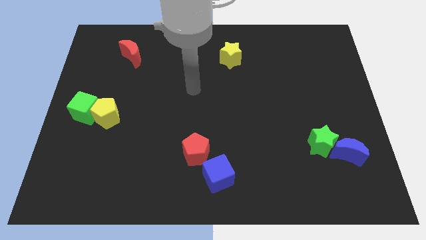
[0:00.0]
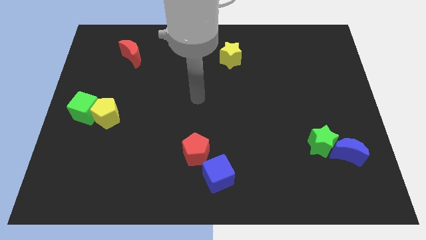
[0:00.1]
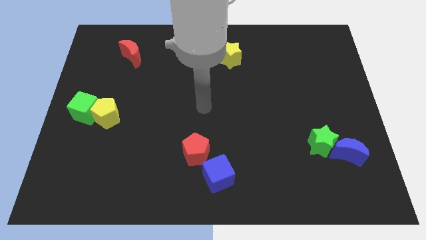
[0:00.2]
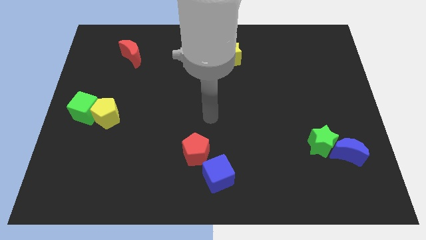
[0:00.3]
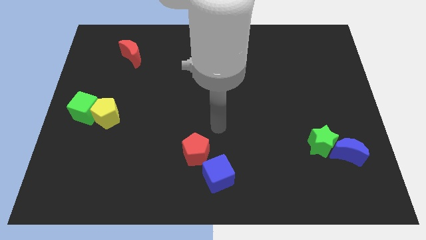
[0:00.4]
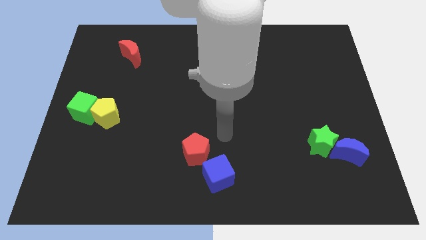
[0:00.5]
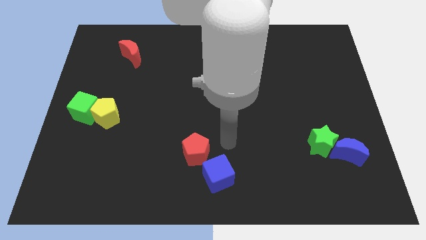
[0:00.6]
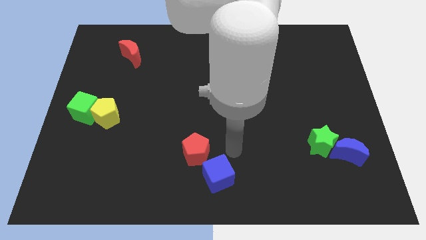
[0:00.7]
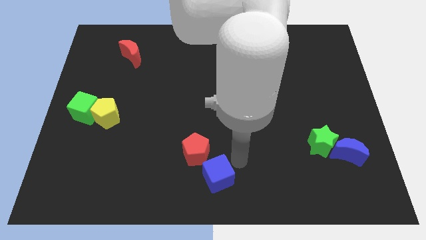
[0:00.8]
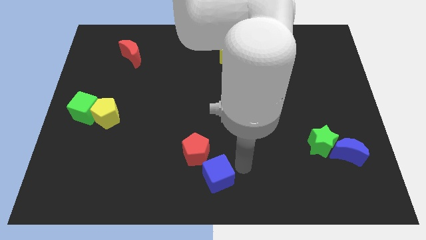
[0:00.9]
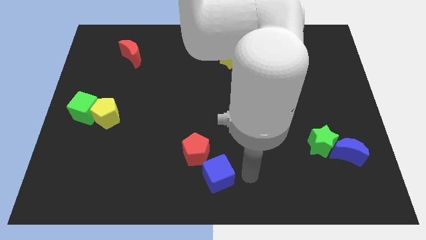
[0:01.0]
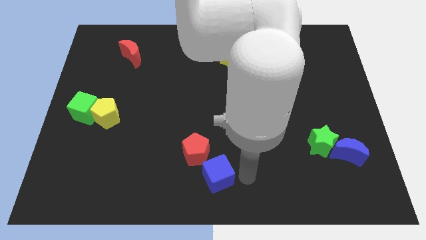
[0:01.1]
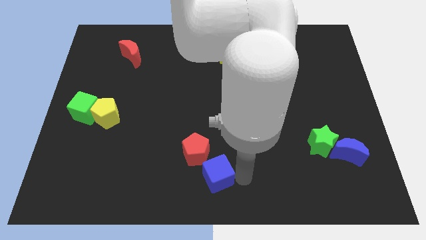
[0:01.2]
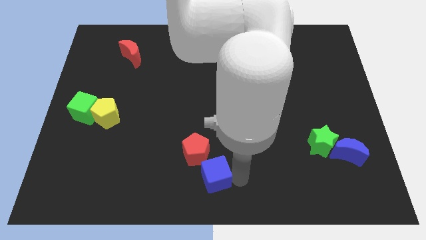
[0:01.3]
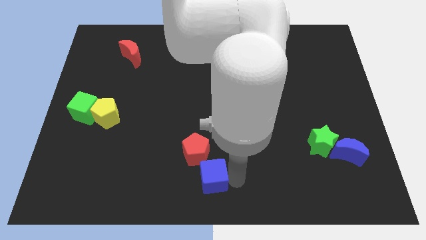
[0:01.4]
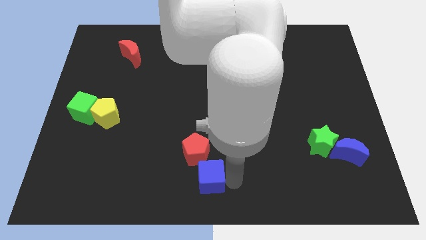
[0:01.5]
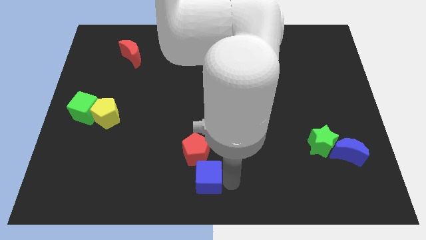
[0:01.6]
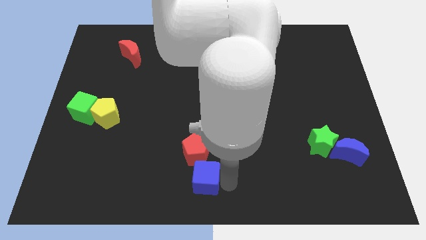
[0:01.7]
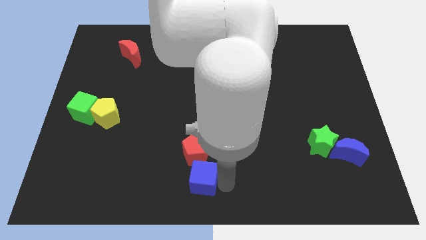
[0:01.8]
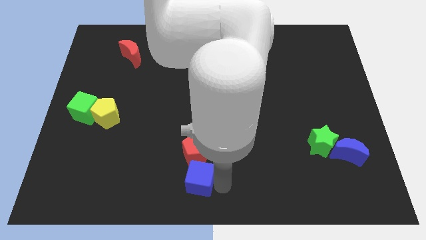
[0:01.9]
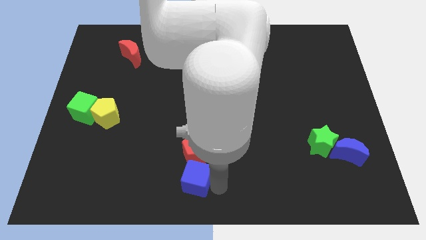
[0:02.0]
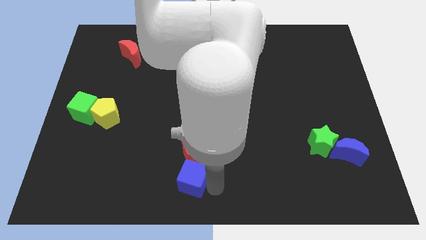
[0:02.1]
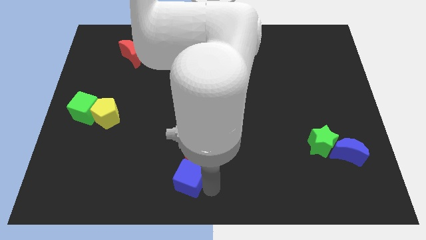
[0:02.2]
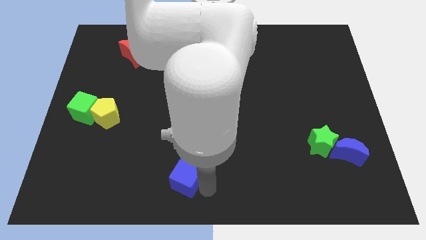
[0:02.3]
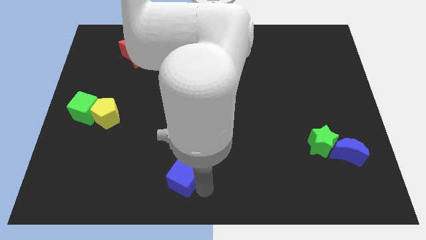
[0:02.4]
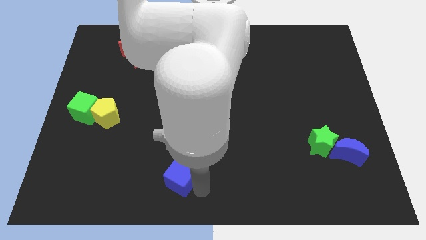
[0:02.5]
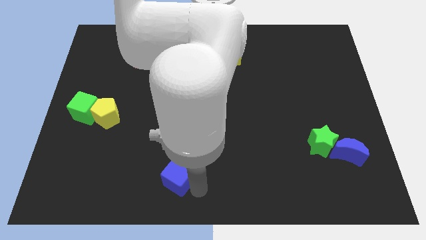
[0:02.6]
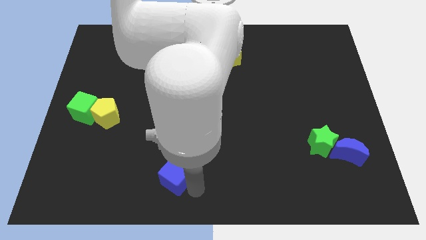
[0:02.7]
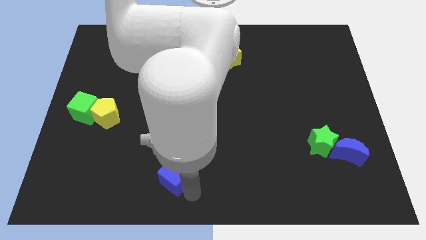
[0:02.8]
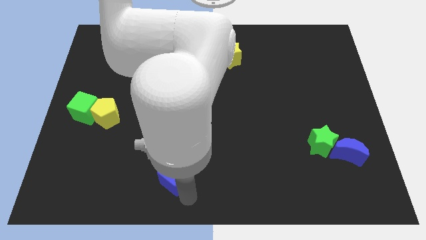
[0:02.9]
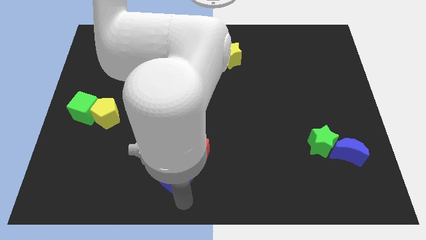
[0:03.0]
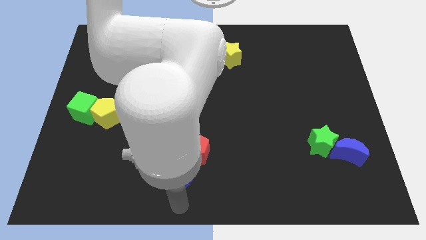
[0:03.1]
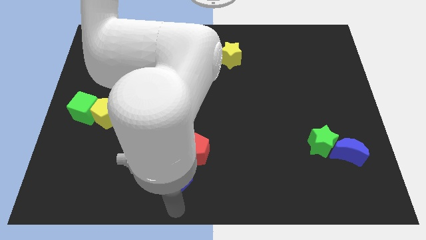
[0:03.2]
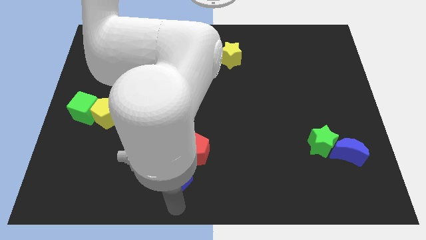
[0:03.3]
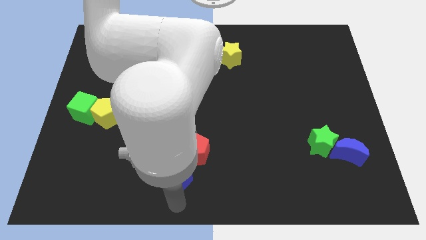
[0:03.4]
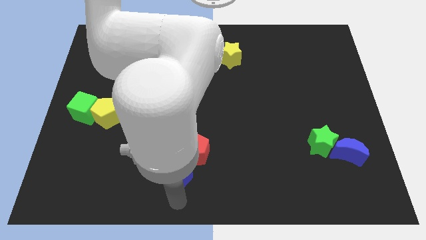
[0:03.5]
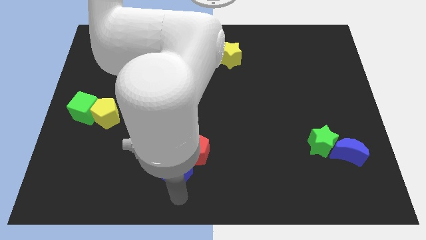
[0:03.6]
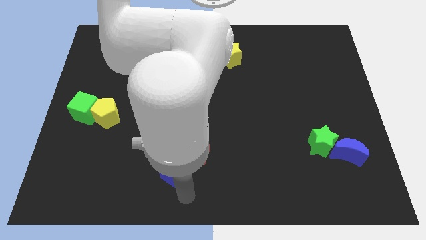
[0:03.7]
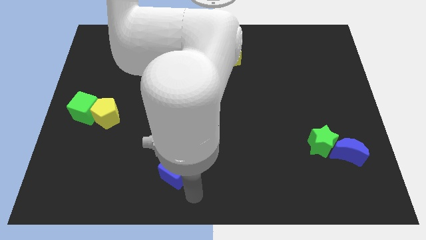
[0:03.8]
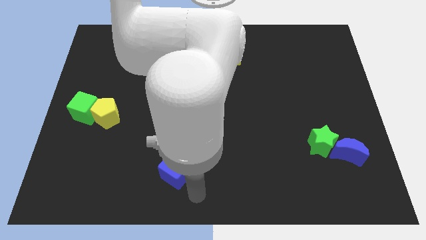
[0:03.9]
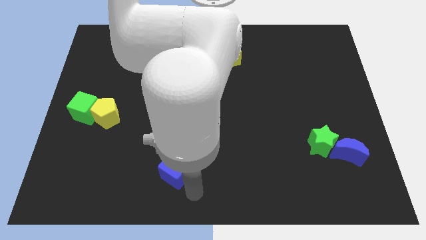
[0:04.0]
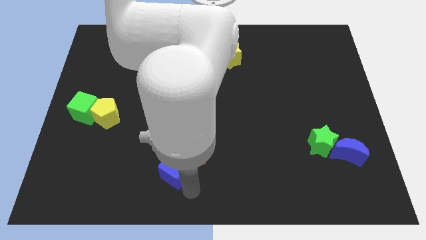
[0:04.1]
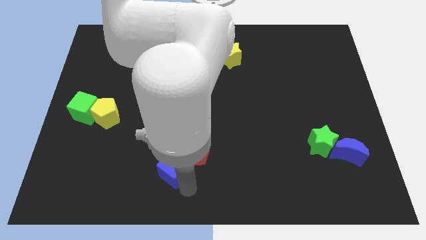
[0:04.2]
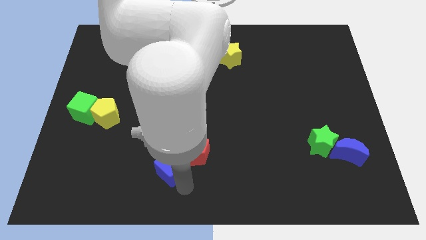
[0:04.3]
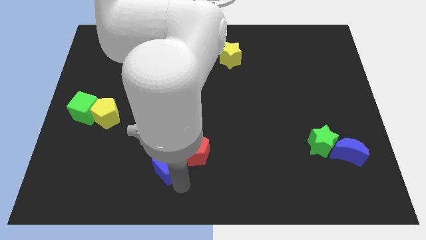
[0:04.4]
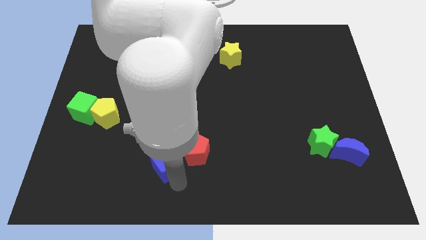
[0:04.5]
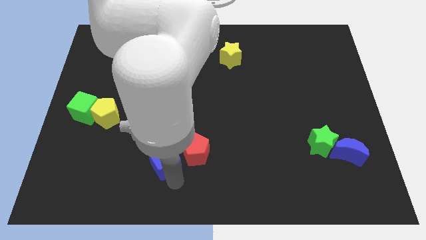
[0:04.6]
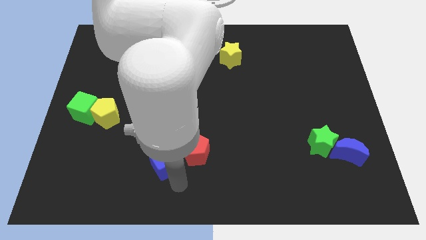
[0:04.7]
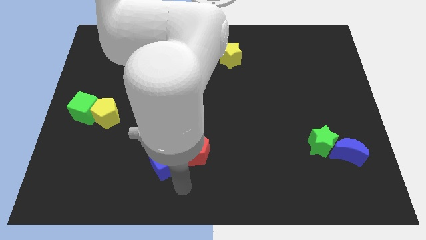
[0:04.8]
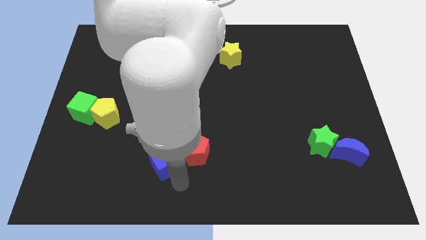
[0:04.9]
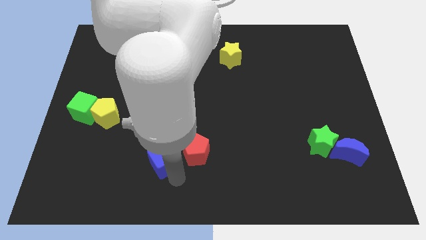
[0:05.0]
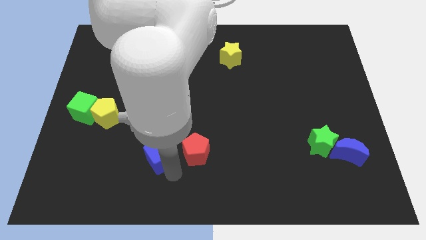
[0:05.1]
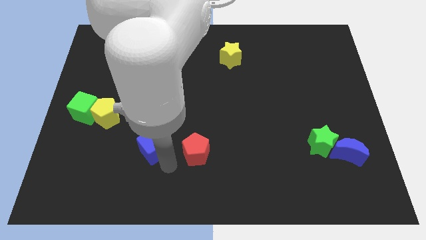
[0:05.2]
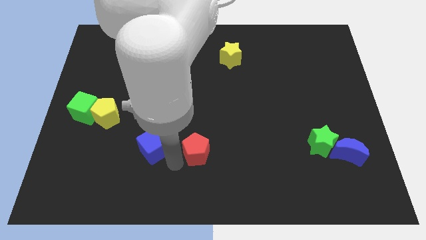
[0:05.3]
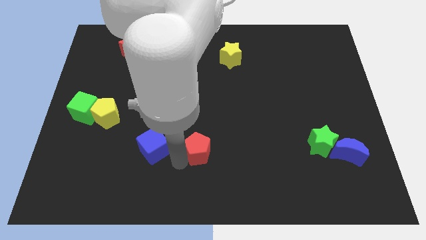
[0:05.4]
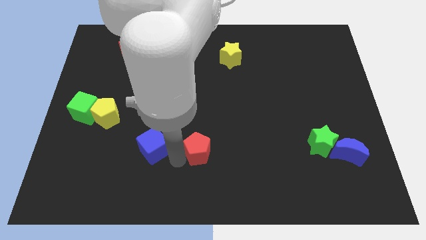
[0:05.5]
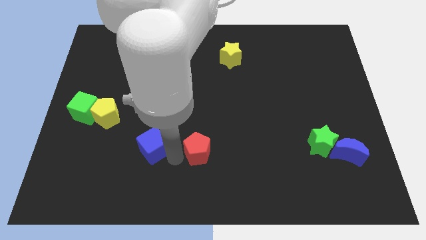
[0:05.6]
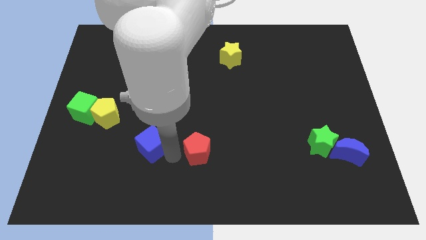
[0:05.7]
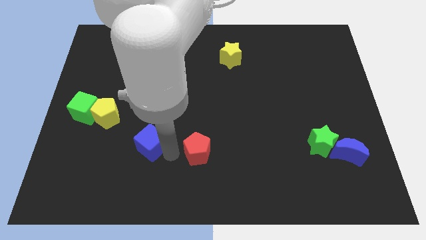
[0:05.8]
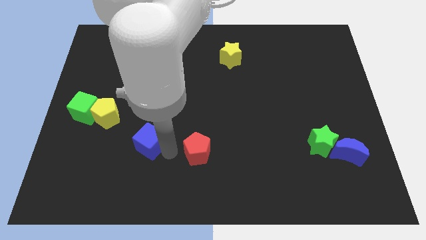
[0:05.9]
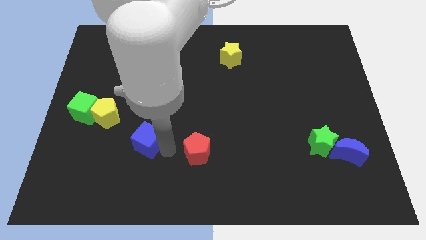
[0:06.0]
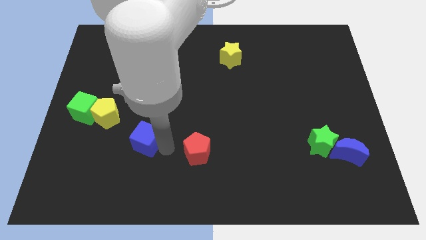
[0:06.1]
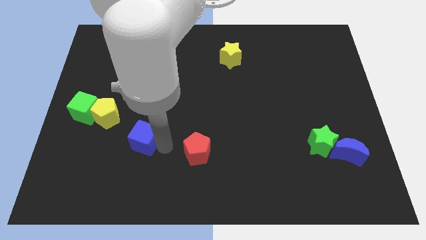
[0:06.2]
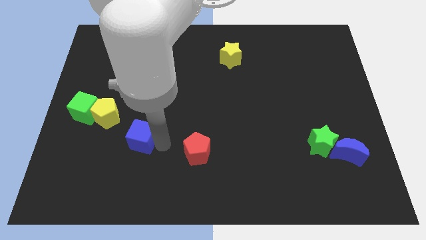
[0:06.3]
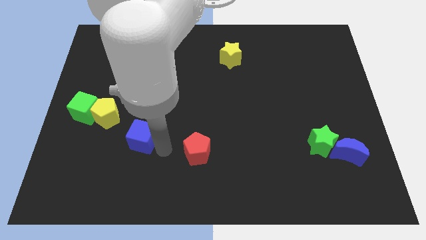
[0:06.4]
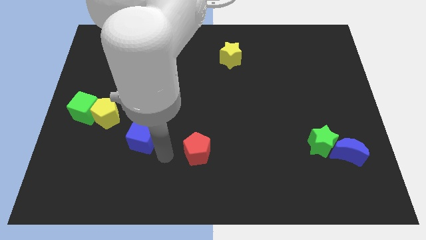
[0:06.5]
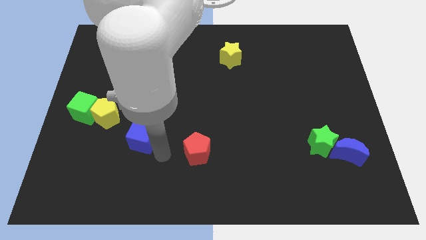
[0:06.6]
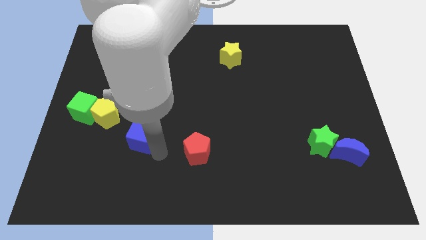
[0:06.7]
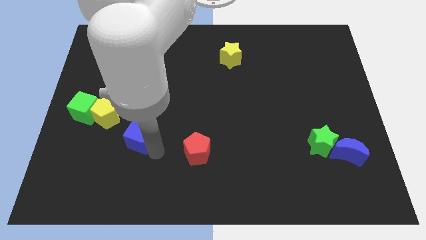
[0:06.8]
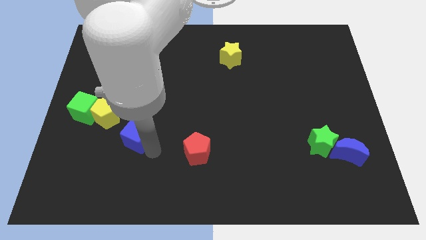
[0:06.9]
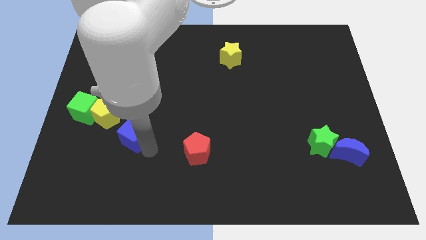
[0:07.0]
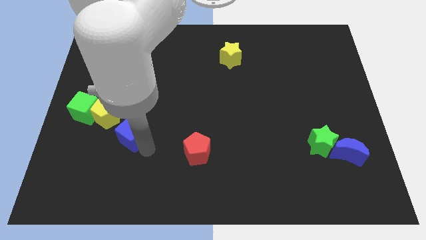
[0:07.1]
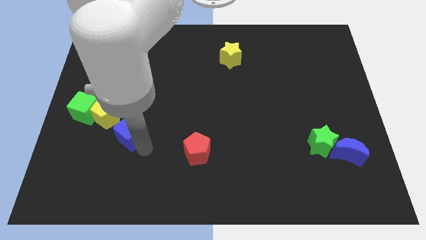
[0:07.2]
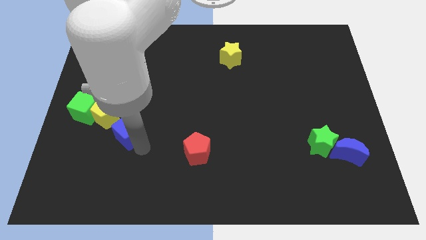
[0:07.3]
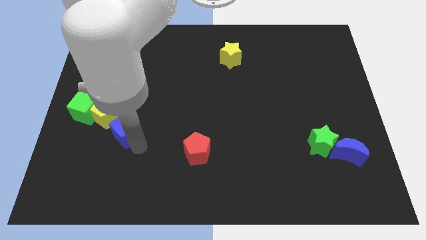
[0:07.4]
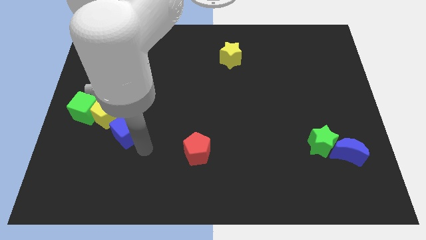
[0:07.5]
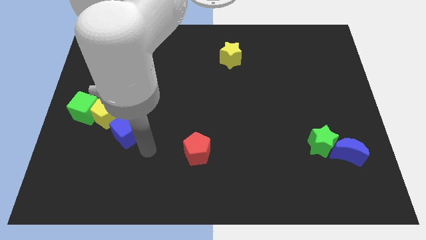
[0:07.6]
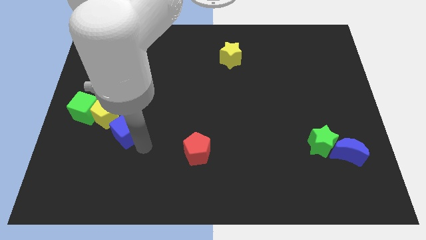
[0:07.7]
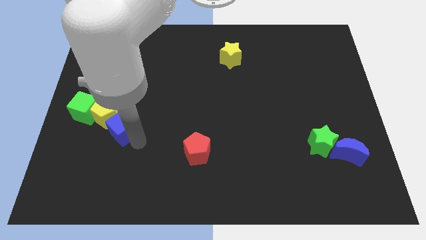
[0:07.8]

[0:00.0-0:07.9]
push the blue cube towards the yellow pentagon

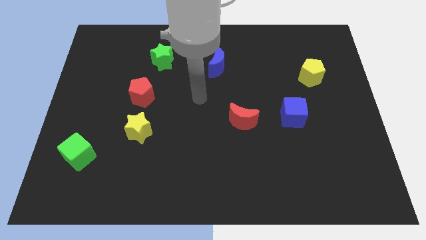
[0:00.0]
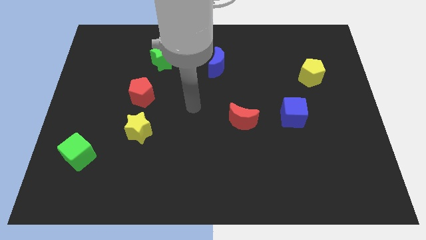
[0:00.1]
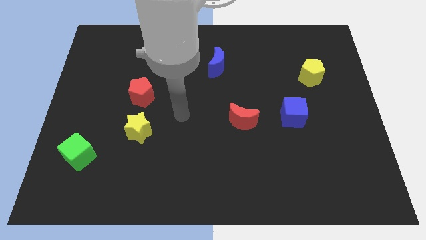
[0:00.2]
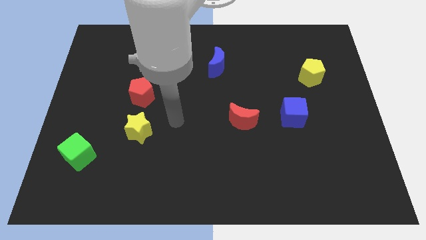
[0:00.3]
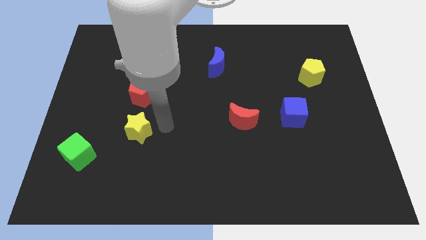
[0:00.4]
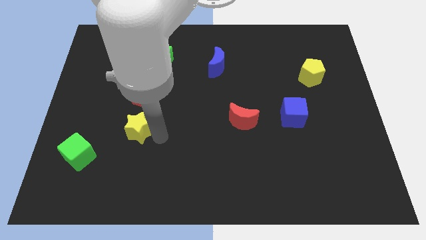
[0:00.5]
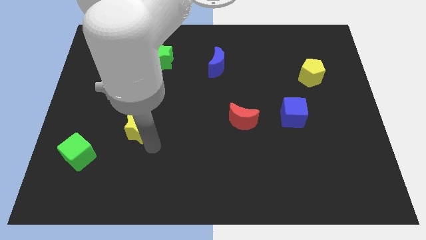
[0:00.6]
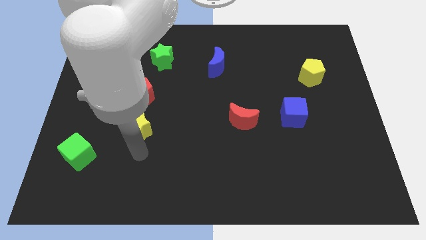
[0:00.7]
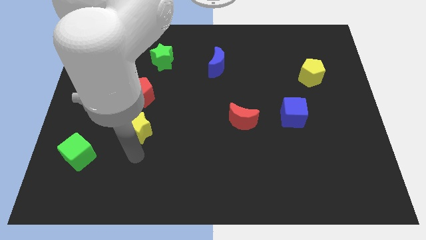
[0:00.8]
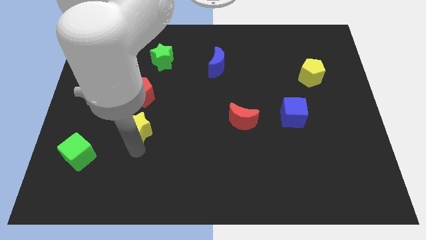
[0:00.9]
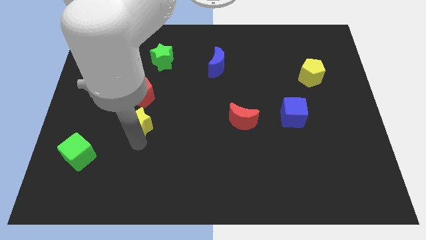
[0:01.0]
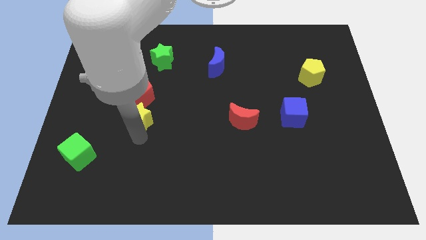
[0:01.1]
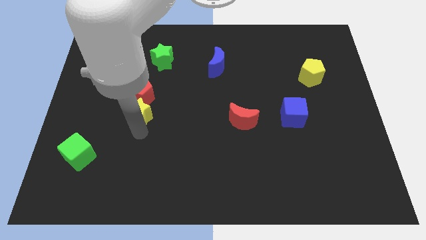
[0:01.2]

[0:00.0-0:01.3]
put the yellow star close to the red pentagon
